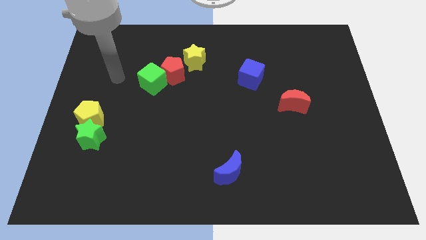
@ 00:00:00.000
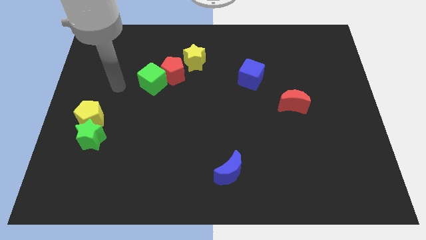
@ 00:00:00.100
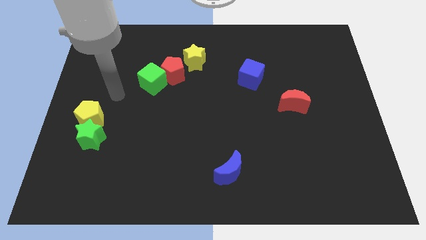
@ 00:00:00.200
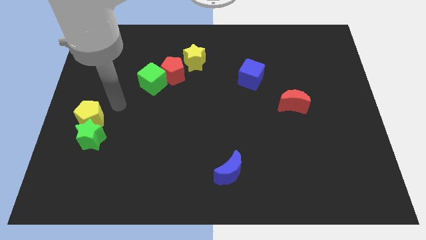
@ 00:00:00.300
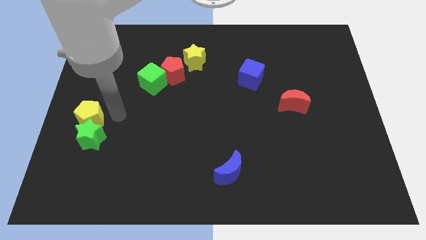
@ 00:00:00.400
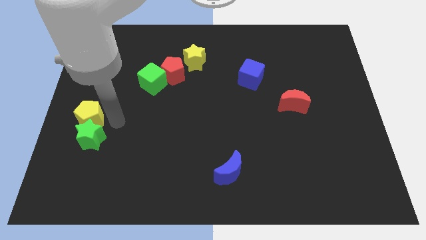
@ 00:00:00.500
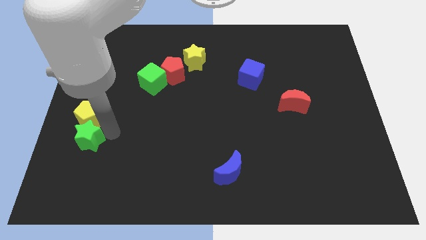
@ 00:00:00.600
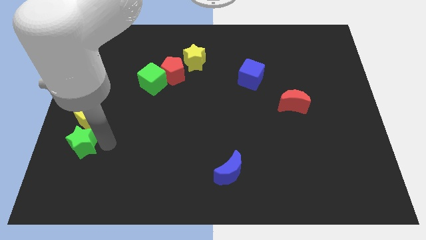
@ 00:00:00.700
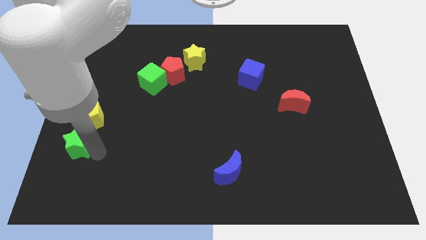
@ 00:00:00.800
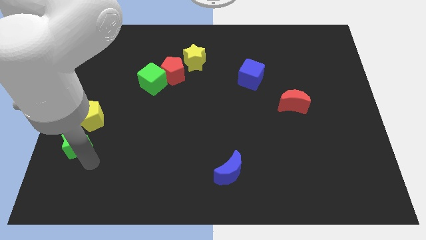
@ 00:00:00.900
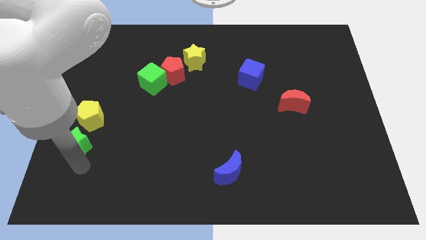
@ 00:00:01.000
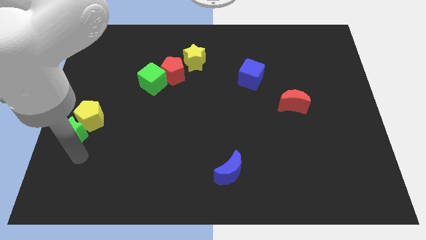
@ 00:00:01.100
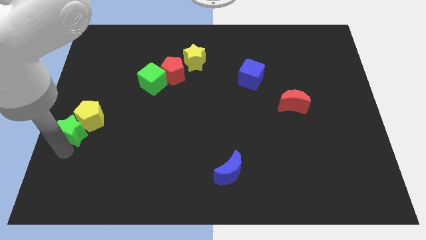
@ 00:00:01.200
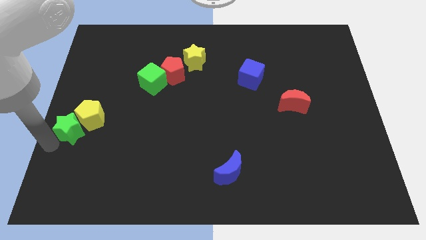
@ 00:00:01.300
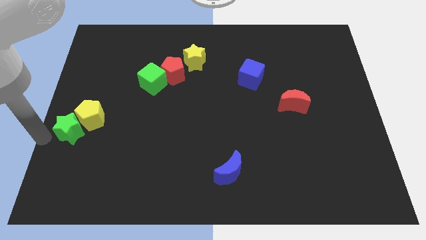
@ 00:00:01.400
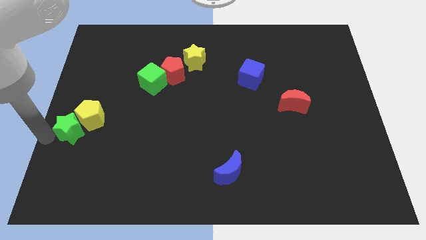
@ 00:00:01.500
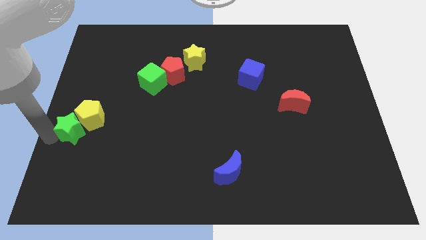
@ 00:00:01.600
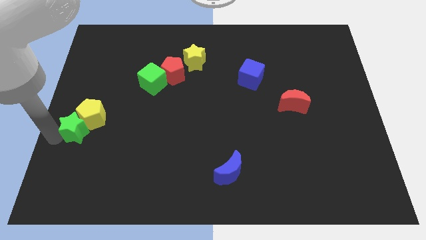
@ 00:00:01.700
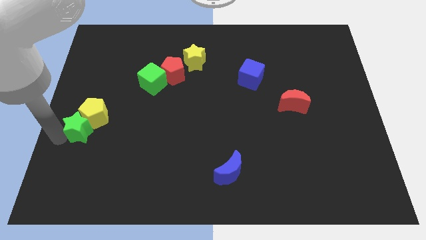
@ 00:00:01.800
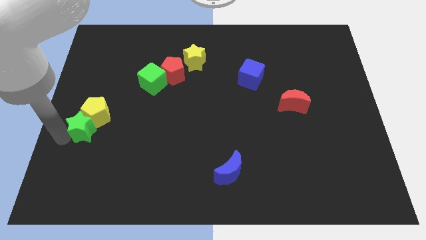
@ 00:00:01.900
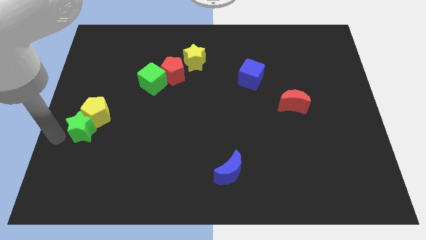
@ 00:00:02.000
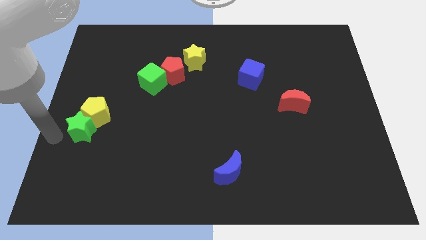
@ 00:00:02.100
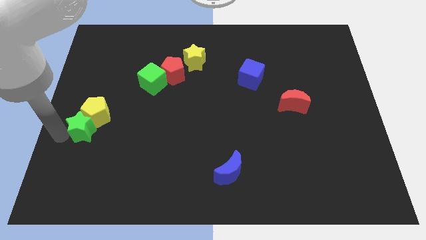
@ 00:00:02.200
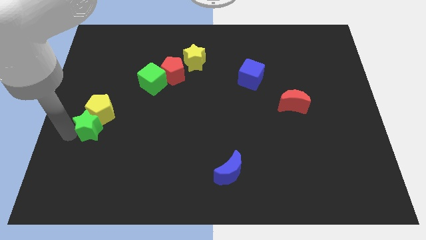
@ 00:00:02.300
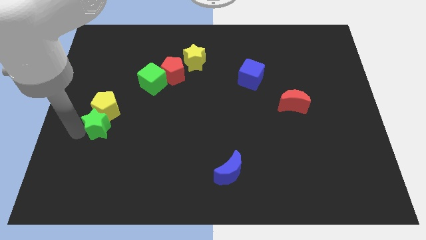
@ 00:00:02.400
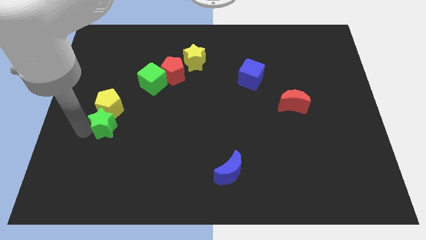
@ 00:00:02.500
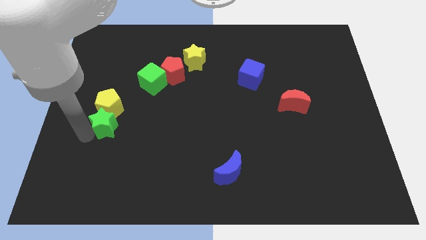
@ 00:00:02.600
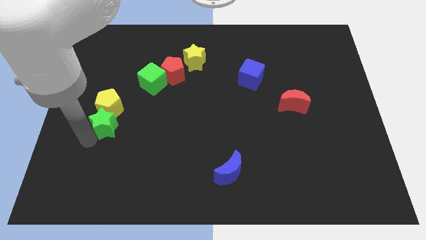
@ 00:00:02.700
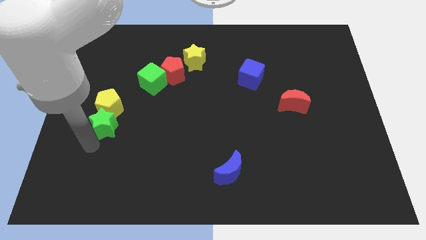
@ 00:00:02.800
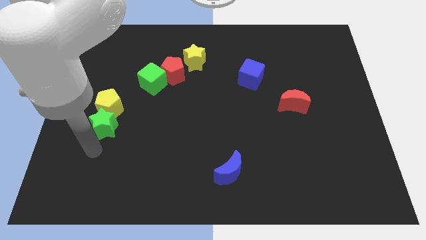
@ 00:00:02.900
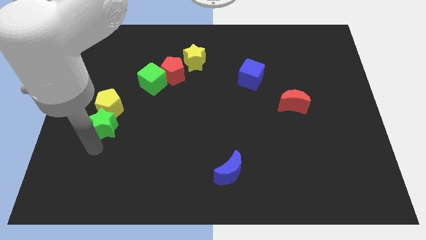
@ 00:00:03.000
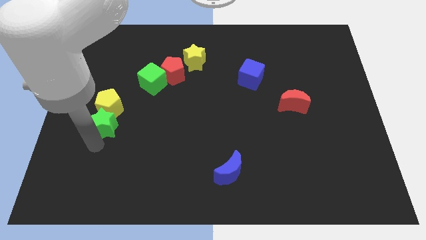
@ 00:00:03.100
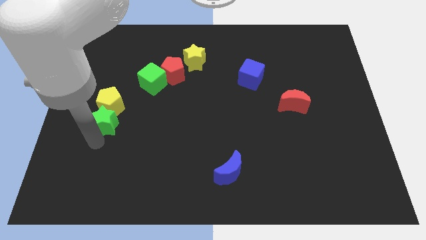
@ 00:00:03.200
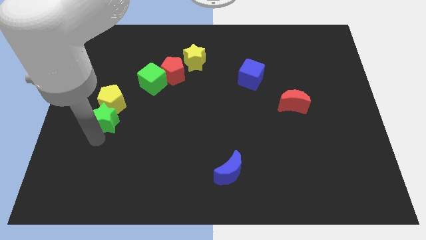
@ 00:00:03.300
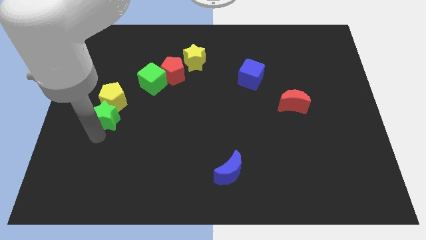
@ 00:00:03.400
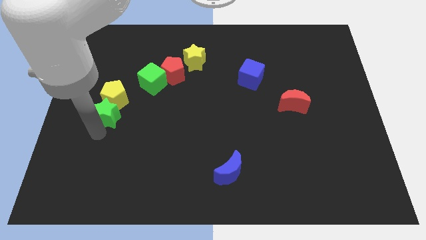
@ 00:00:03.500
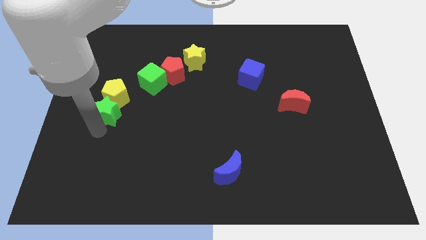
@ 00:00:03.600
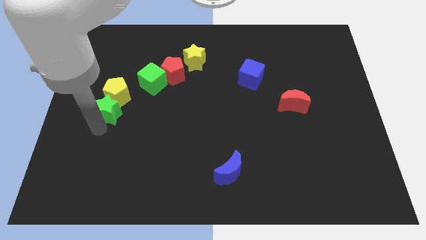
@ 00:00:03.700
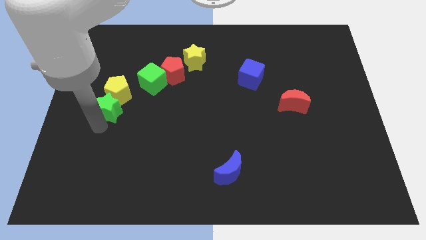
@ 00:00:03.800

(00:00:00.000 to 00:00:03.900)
slide the green star upwards a bit

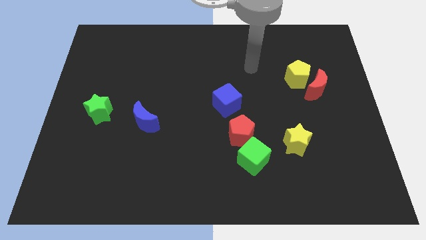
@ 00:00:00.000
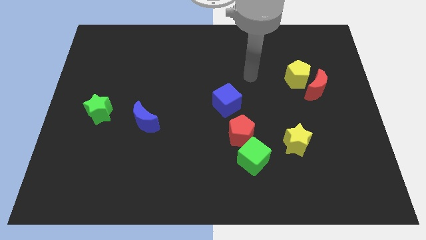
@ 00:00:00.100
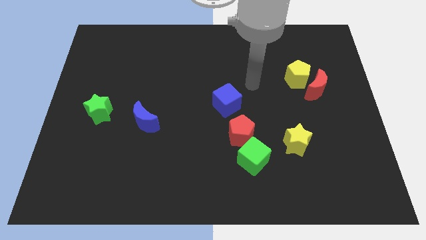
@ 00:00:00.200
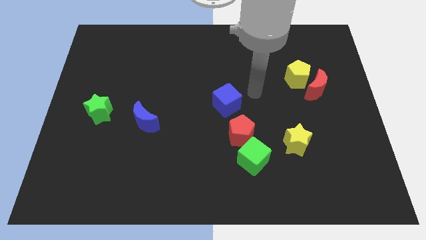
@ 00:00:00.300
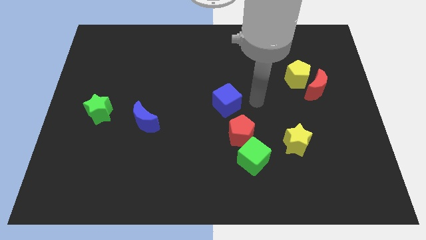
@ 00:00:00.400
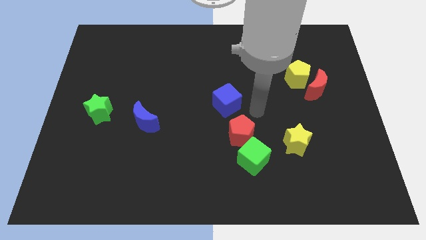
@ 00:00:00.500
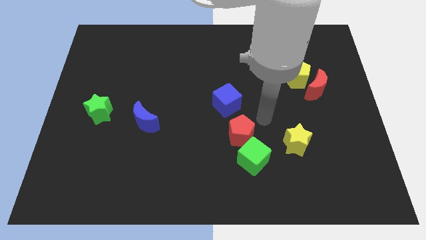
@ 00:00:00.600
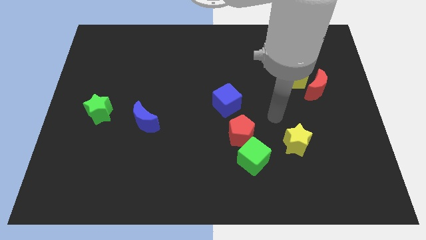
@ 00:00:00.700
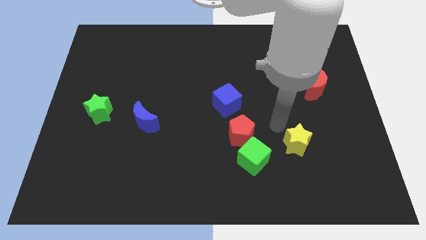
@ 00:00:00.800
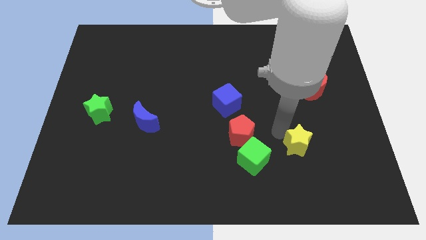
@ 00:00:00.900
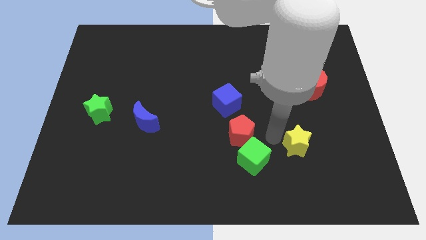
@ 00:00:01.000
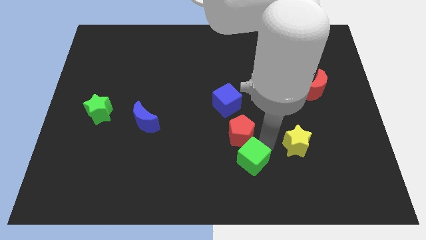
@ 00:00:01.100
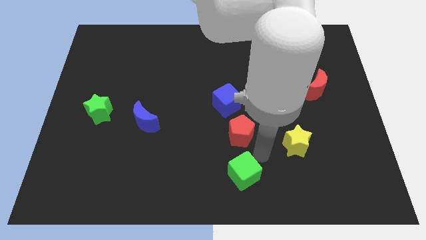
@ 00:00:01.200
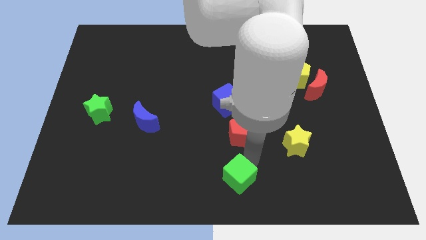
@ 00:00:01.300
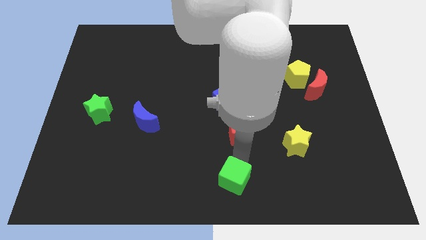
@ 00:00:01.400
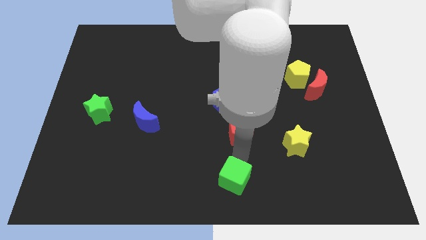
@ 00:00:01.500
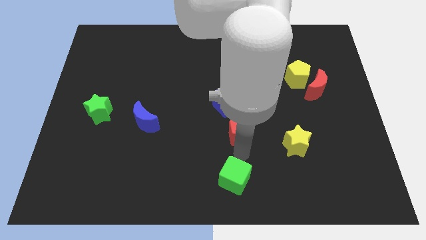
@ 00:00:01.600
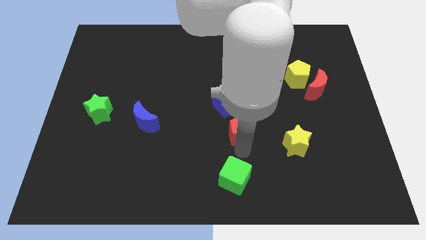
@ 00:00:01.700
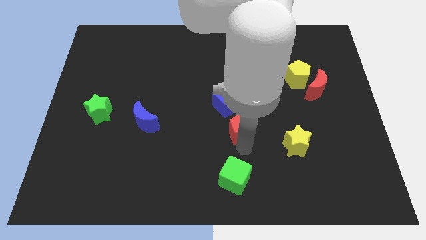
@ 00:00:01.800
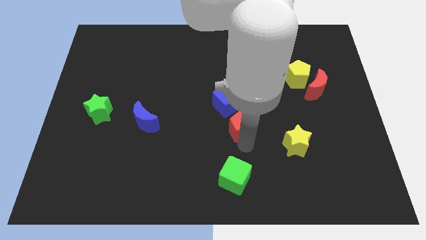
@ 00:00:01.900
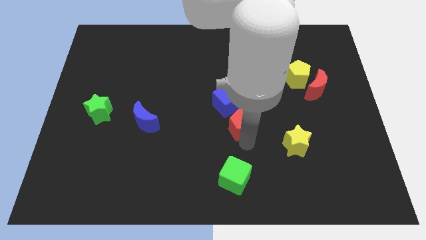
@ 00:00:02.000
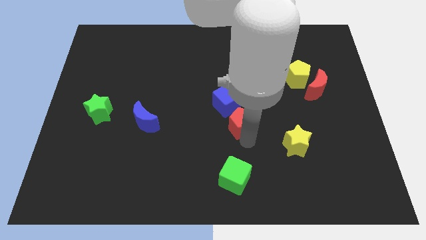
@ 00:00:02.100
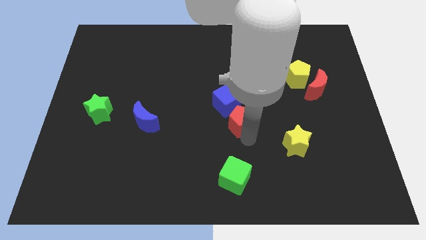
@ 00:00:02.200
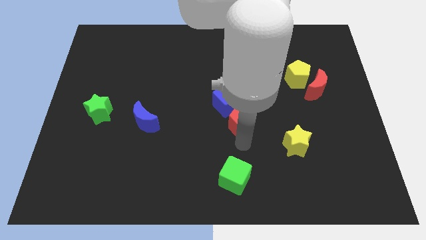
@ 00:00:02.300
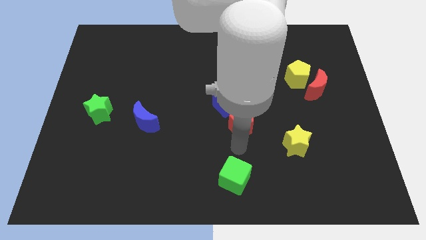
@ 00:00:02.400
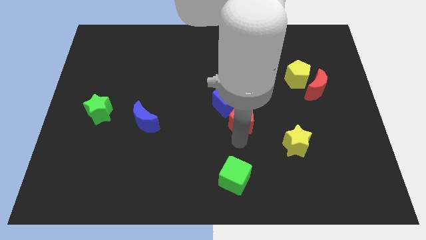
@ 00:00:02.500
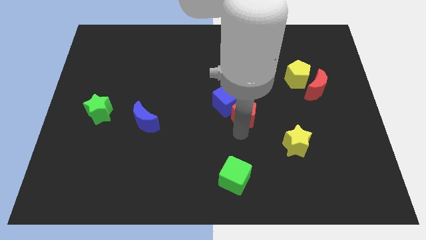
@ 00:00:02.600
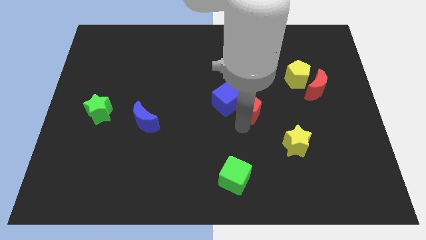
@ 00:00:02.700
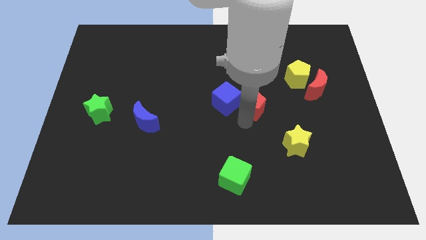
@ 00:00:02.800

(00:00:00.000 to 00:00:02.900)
move the red pentagon a little upwards

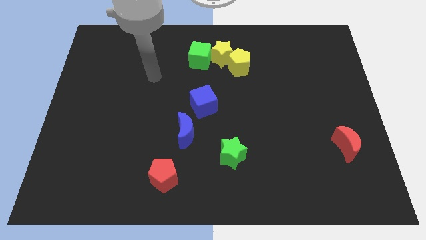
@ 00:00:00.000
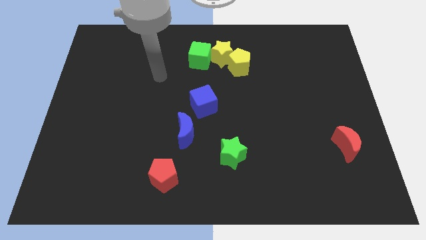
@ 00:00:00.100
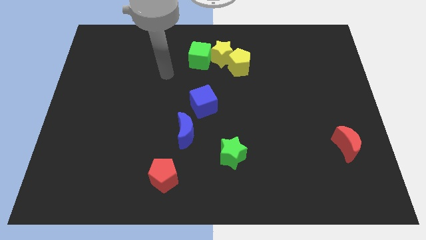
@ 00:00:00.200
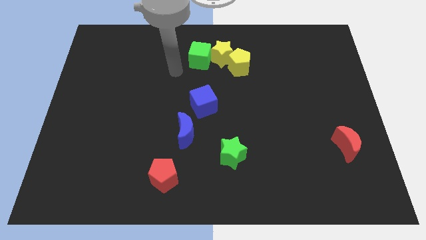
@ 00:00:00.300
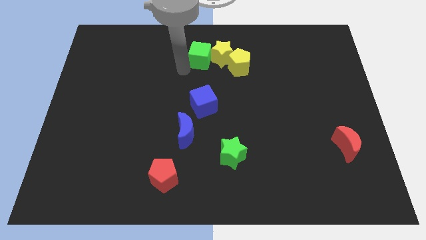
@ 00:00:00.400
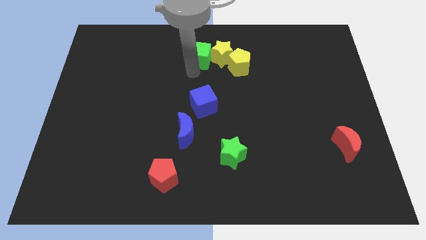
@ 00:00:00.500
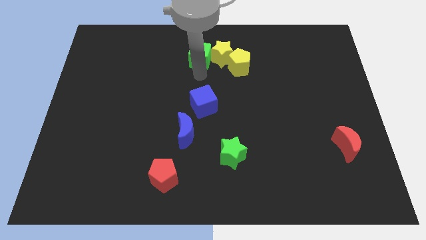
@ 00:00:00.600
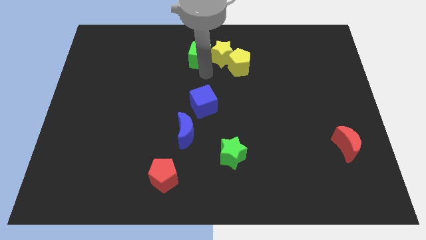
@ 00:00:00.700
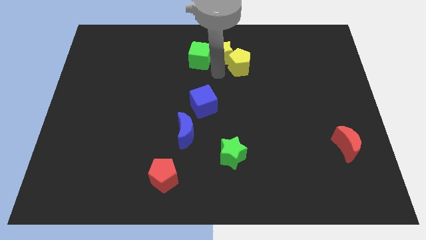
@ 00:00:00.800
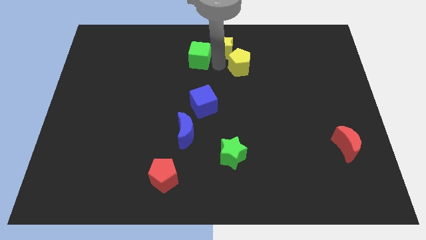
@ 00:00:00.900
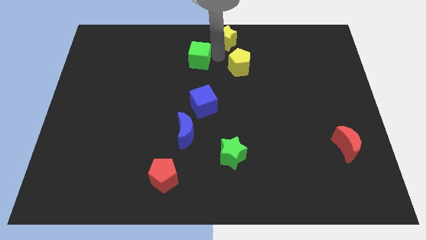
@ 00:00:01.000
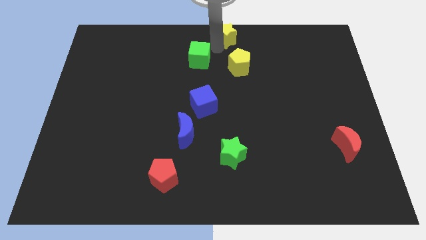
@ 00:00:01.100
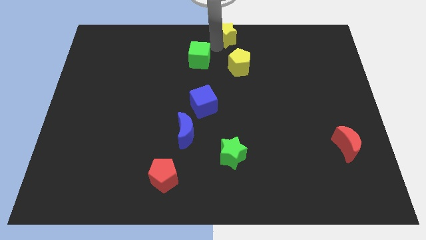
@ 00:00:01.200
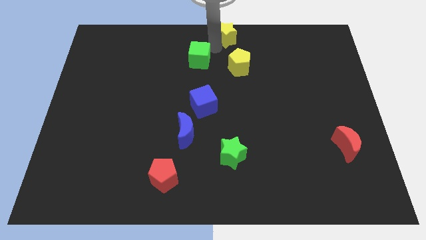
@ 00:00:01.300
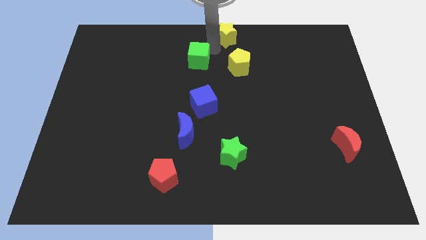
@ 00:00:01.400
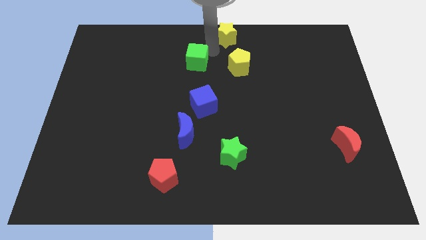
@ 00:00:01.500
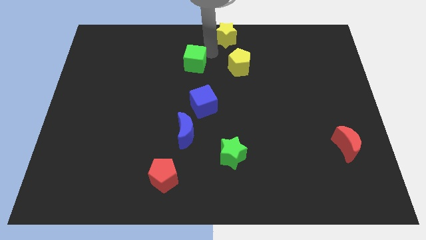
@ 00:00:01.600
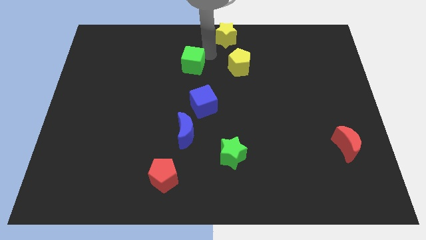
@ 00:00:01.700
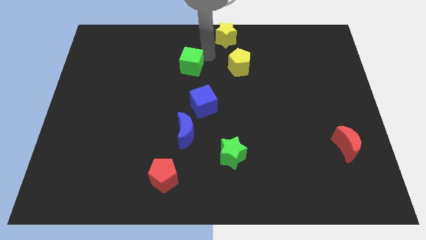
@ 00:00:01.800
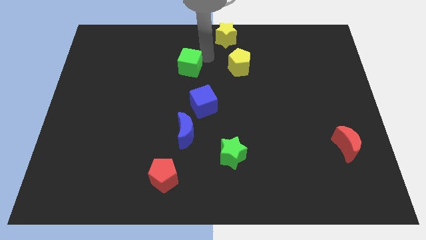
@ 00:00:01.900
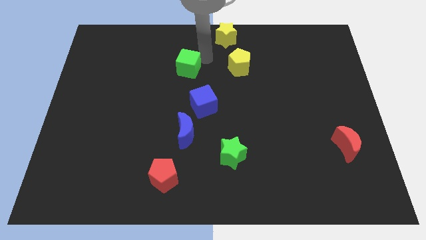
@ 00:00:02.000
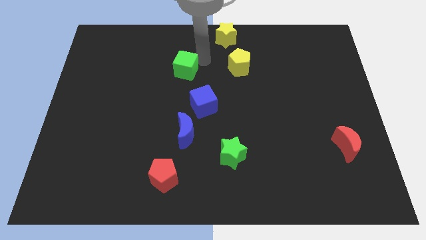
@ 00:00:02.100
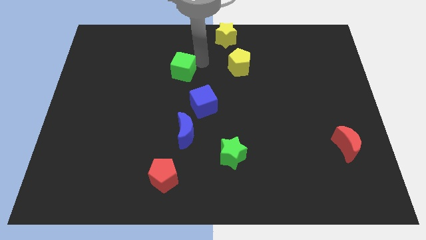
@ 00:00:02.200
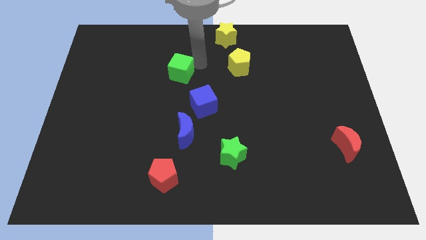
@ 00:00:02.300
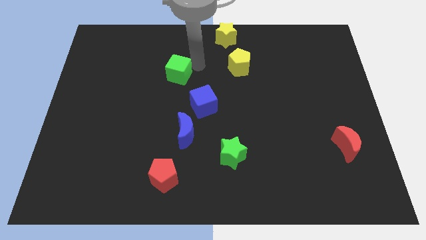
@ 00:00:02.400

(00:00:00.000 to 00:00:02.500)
slightly move the green cube down and to the left
